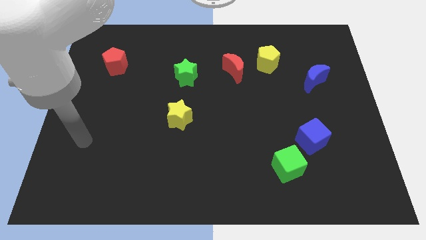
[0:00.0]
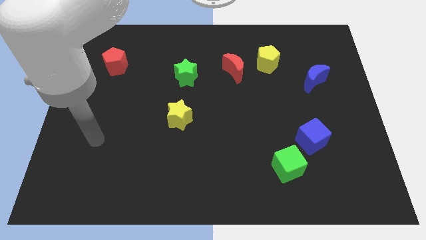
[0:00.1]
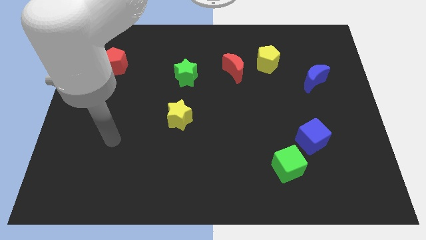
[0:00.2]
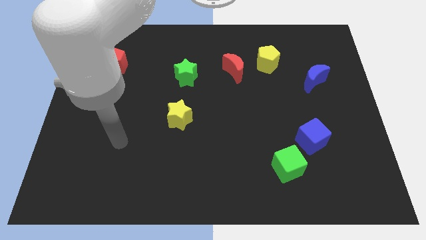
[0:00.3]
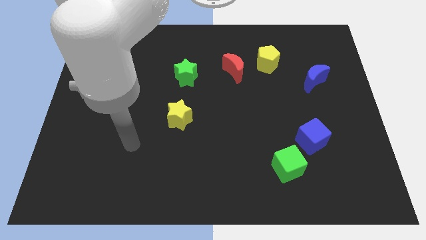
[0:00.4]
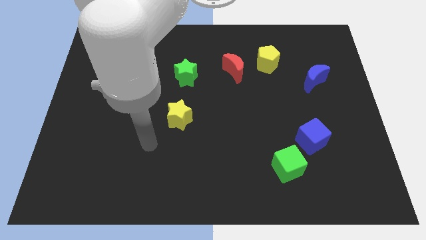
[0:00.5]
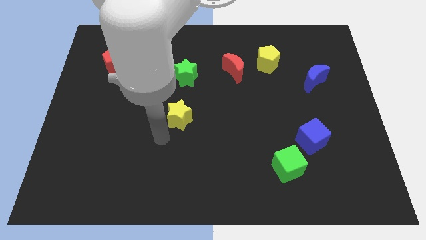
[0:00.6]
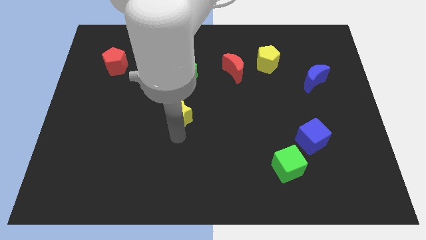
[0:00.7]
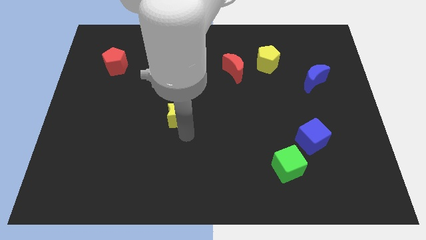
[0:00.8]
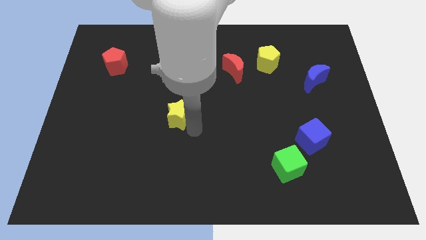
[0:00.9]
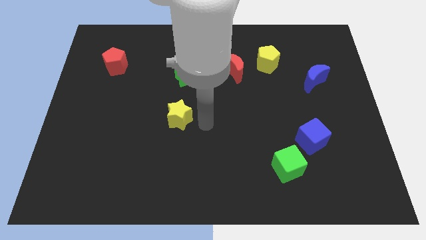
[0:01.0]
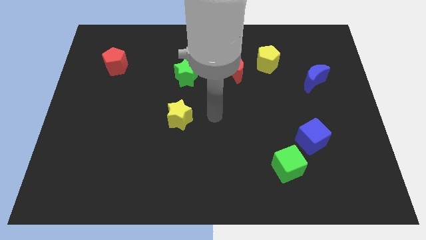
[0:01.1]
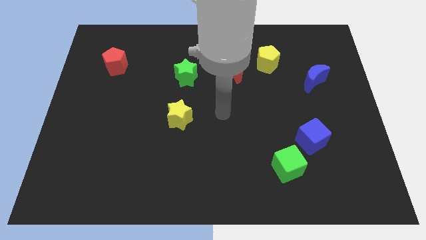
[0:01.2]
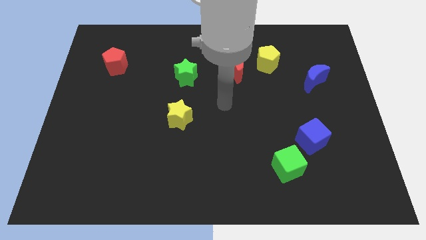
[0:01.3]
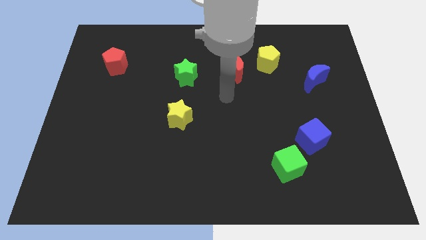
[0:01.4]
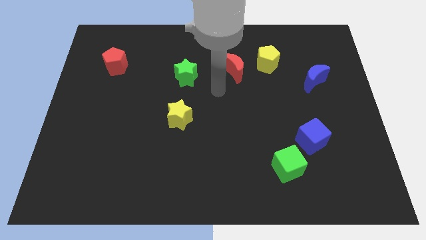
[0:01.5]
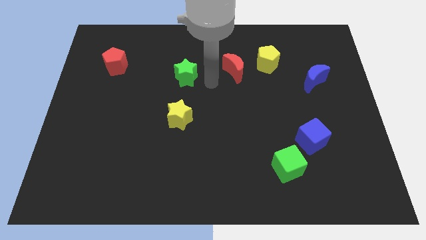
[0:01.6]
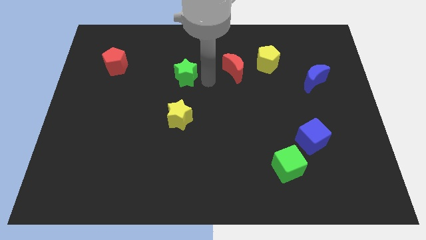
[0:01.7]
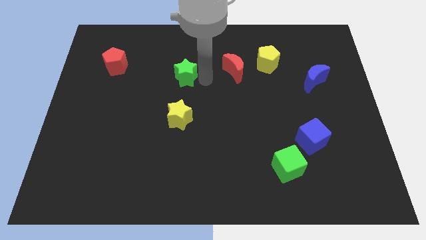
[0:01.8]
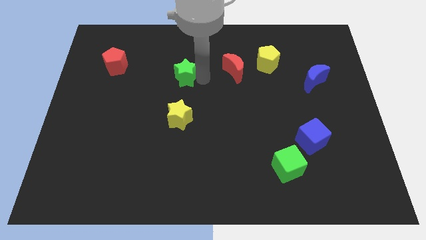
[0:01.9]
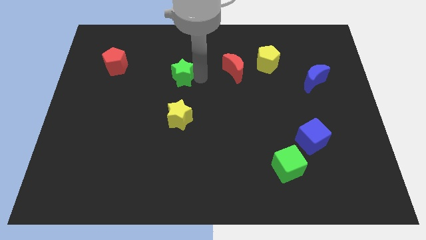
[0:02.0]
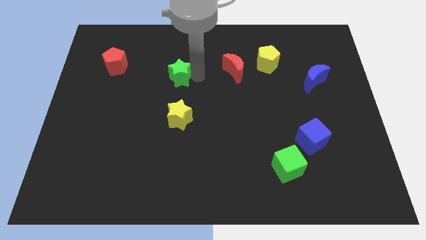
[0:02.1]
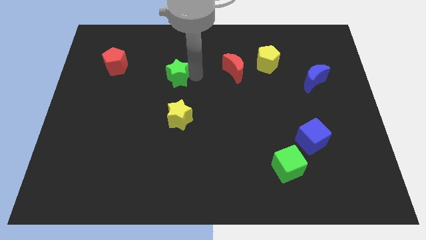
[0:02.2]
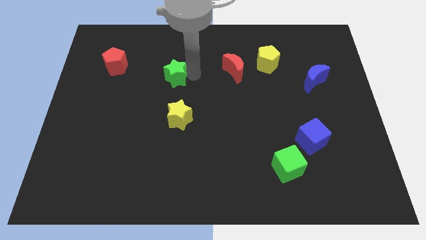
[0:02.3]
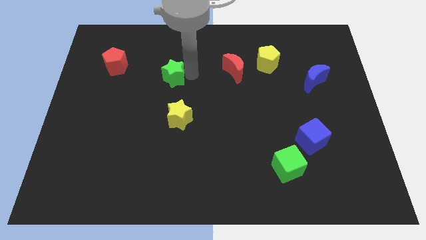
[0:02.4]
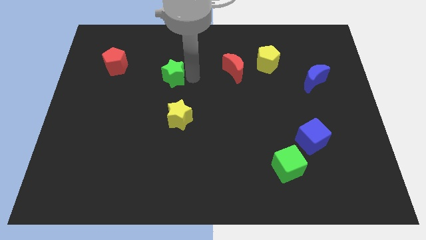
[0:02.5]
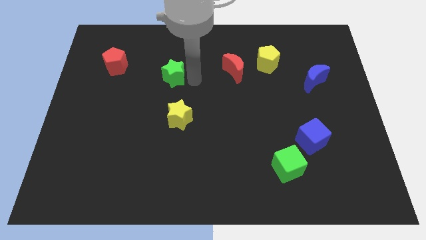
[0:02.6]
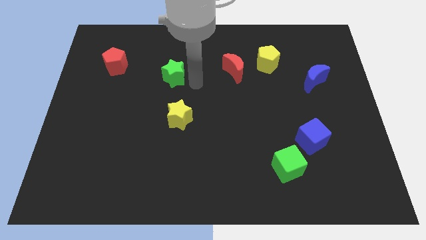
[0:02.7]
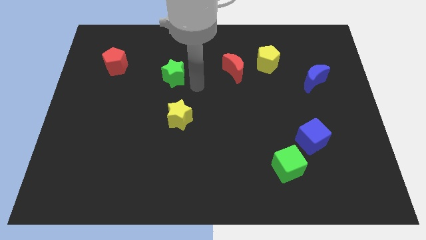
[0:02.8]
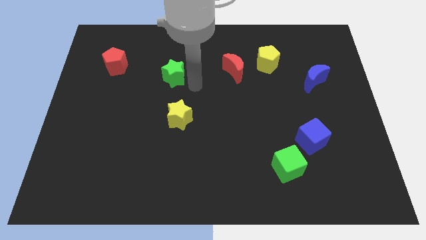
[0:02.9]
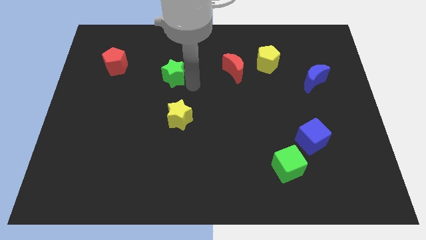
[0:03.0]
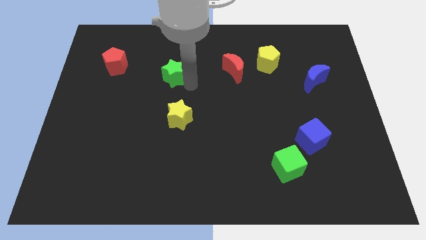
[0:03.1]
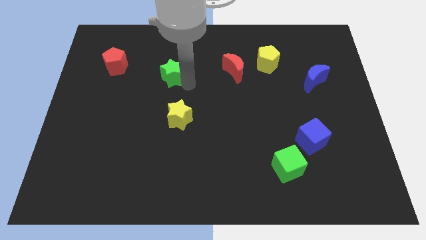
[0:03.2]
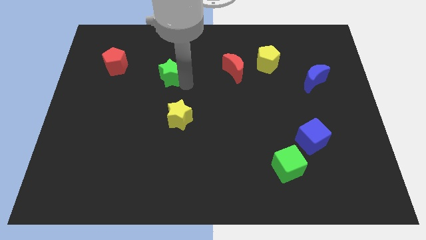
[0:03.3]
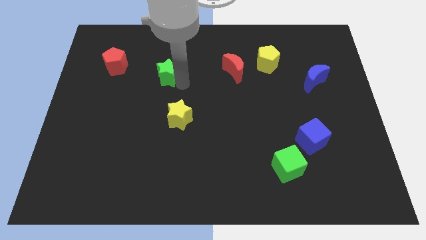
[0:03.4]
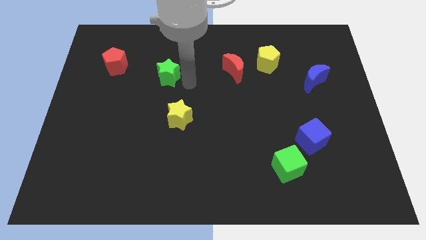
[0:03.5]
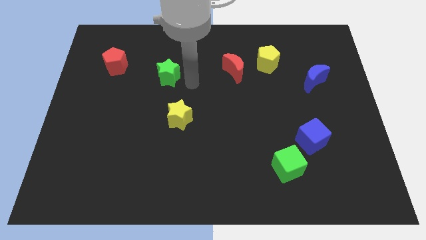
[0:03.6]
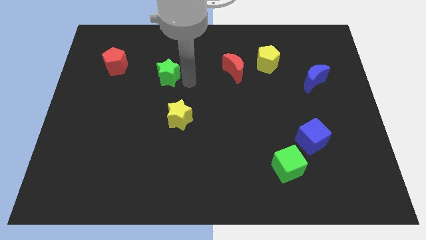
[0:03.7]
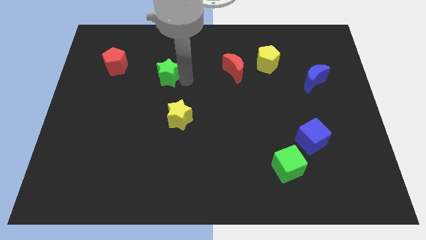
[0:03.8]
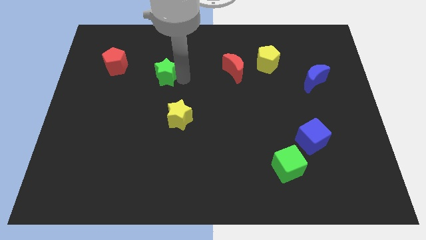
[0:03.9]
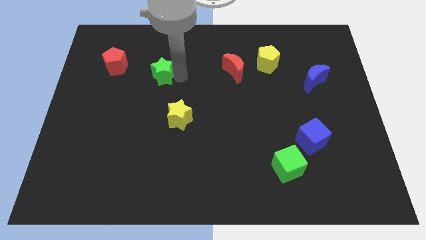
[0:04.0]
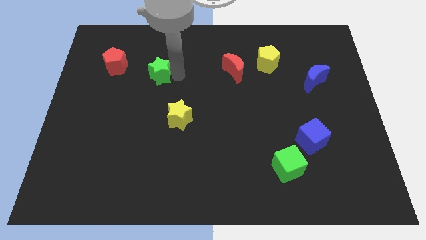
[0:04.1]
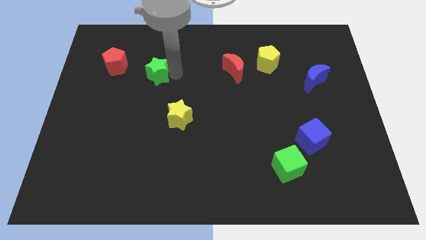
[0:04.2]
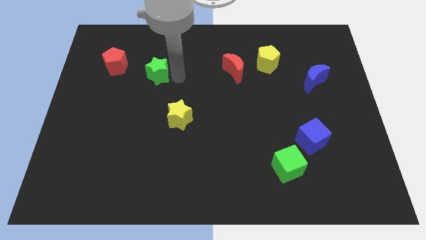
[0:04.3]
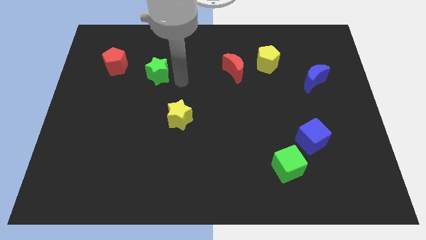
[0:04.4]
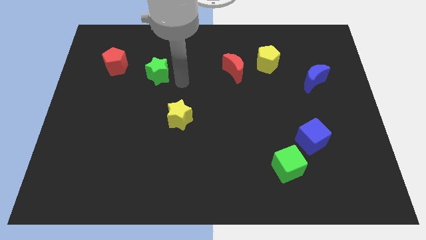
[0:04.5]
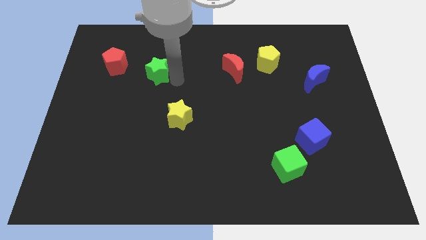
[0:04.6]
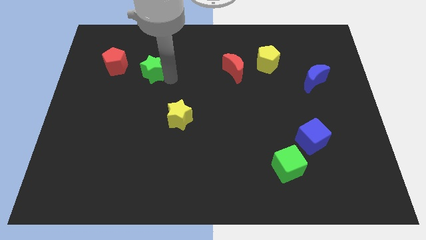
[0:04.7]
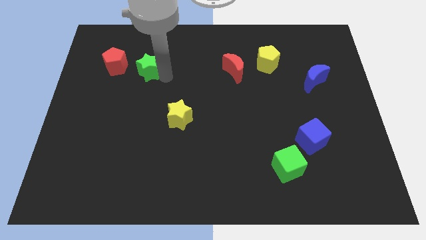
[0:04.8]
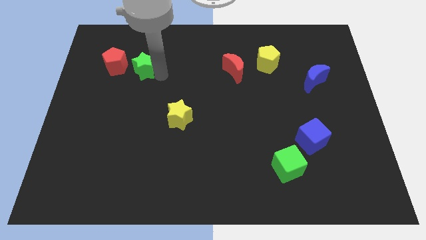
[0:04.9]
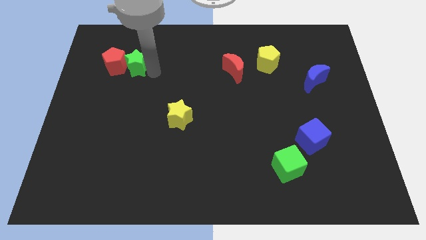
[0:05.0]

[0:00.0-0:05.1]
slide the green star to the red pentagon

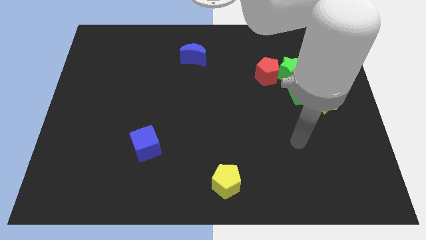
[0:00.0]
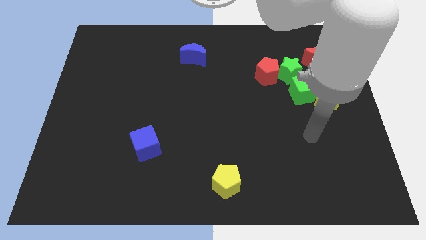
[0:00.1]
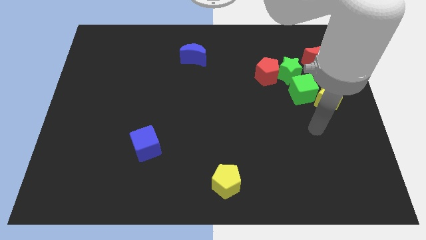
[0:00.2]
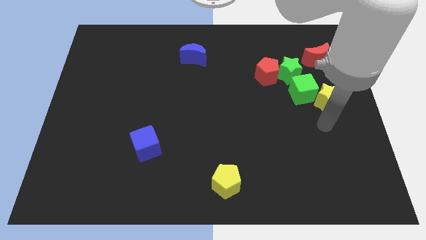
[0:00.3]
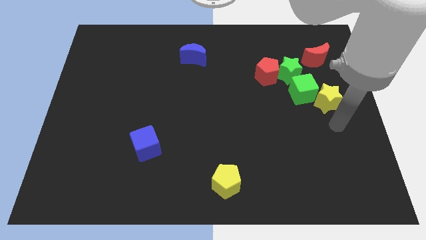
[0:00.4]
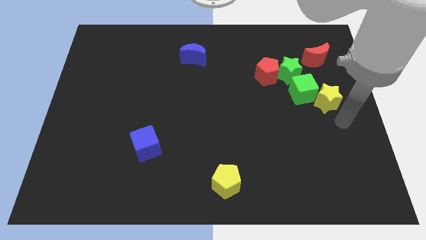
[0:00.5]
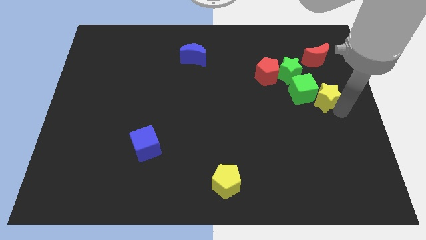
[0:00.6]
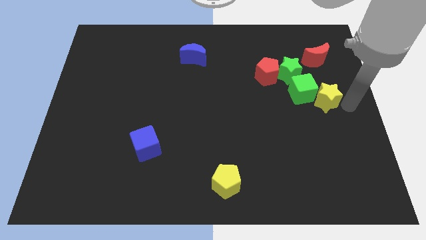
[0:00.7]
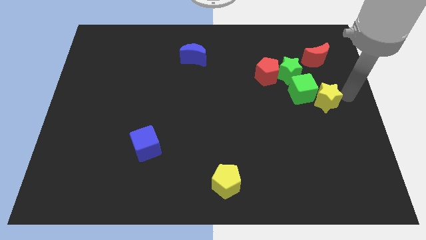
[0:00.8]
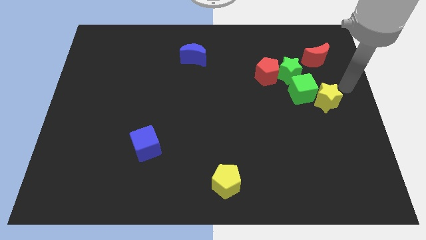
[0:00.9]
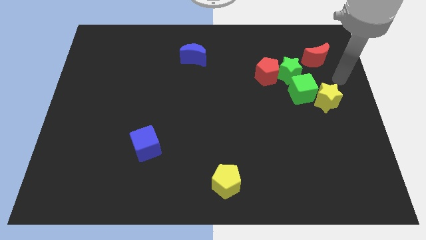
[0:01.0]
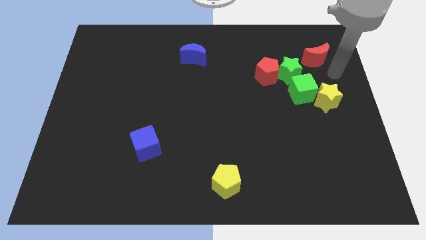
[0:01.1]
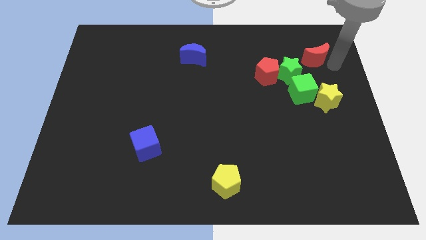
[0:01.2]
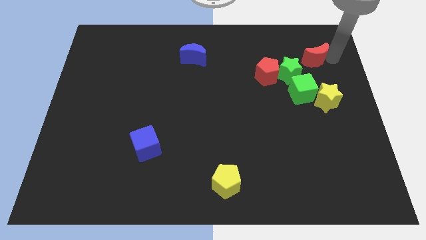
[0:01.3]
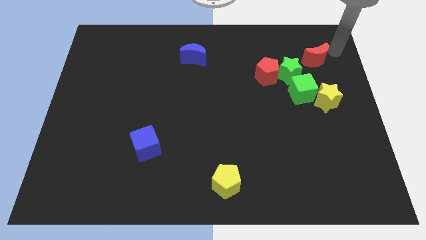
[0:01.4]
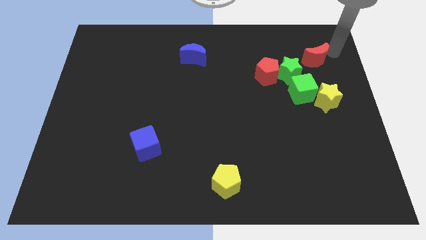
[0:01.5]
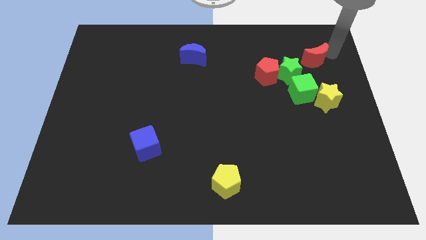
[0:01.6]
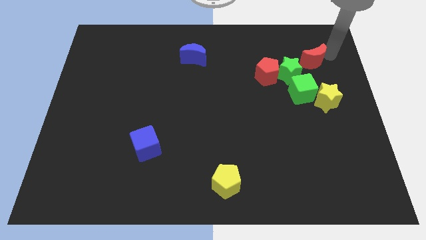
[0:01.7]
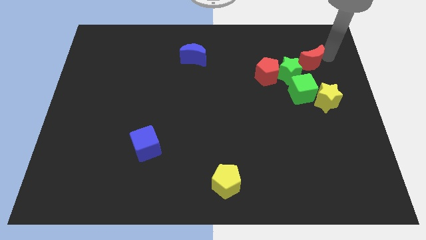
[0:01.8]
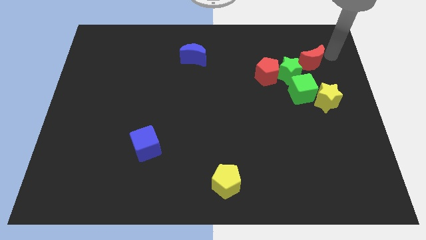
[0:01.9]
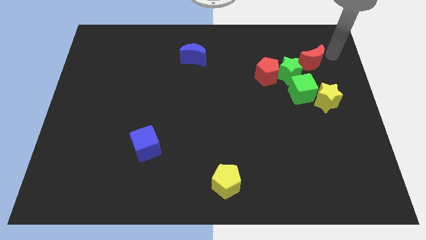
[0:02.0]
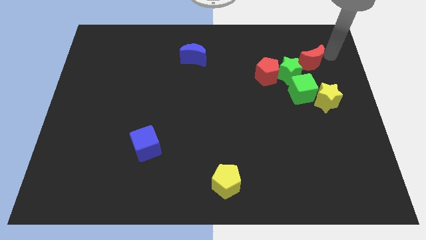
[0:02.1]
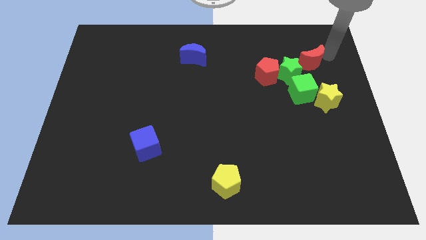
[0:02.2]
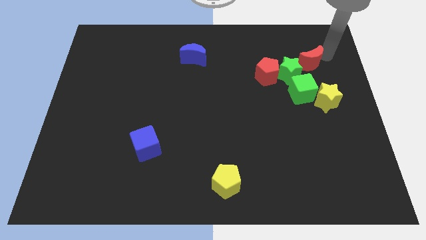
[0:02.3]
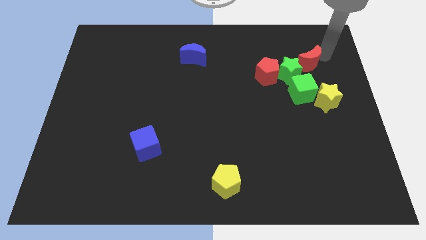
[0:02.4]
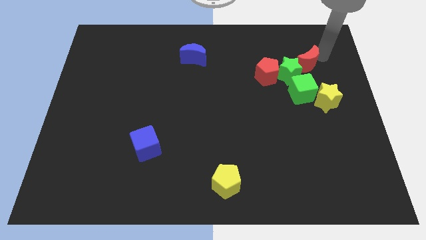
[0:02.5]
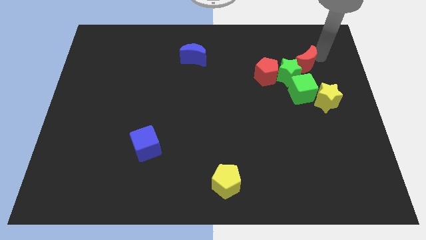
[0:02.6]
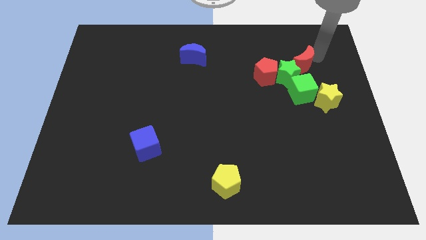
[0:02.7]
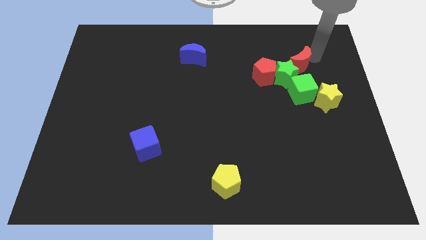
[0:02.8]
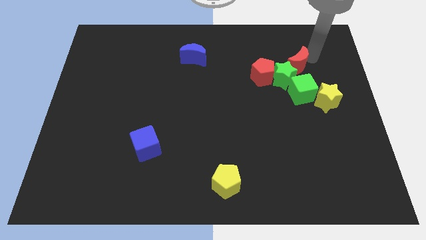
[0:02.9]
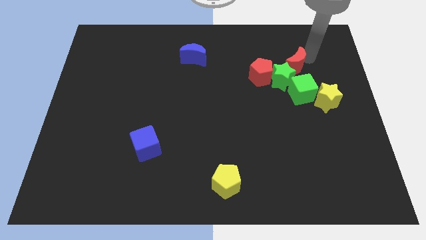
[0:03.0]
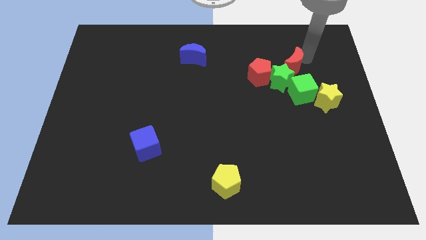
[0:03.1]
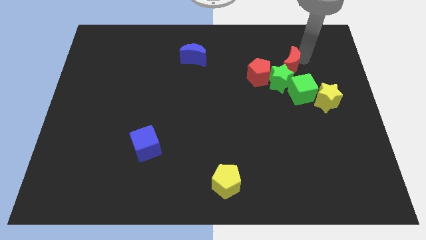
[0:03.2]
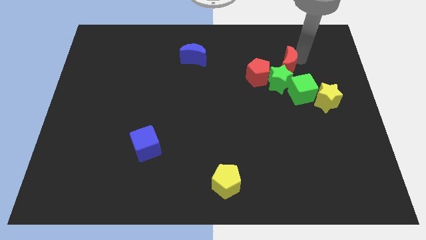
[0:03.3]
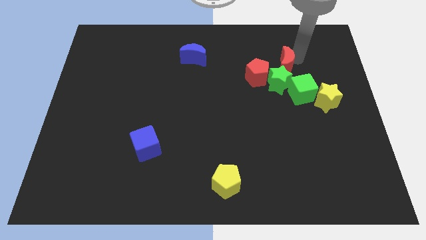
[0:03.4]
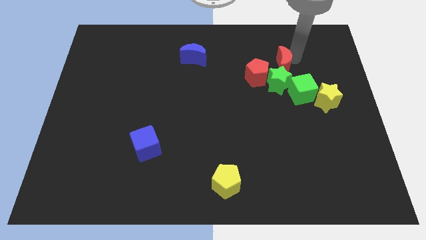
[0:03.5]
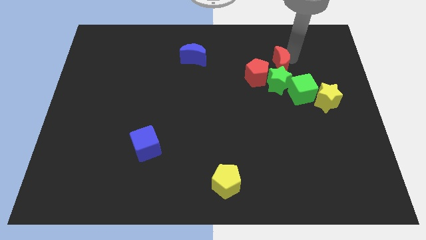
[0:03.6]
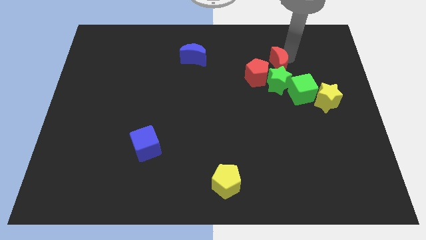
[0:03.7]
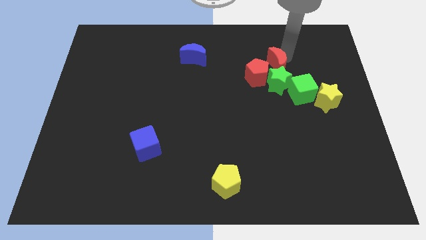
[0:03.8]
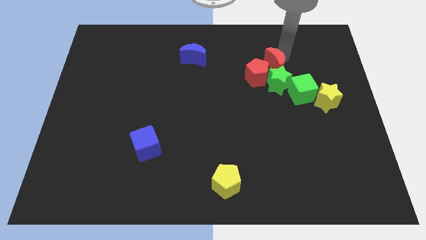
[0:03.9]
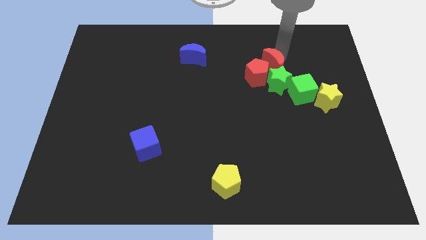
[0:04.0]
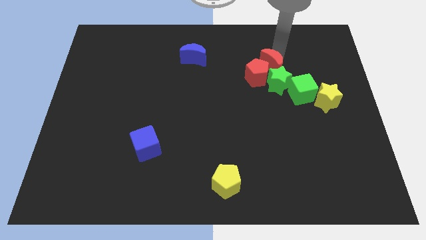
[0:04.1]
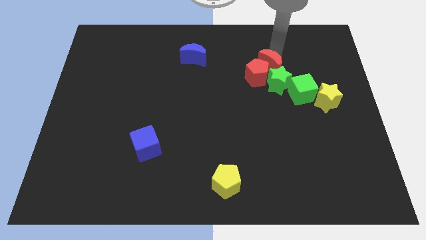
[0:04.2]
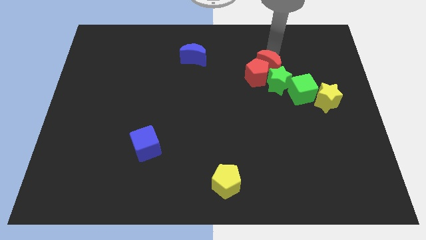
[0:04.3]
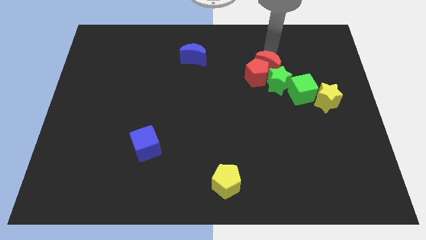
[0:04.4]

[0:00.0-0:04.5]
push the red moon close to the green star
